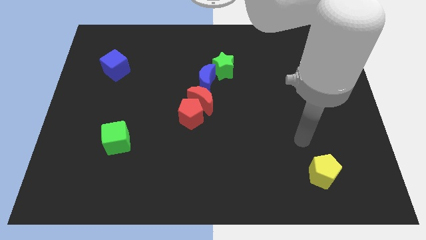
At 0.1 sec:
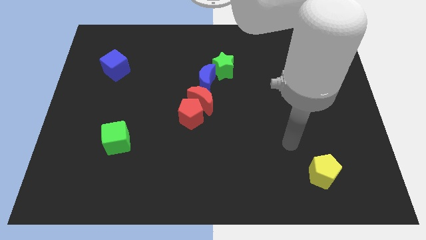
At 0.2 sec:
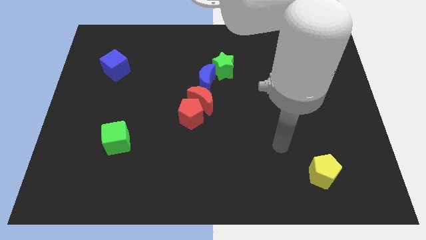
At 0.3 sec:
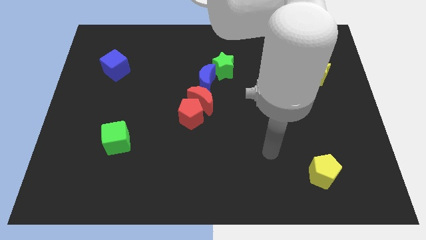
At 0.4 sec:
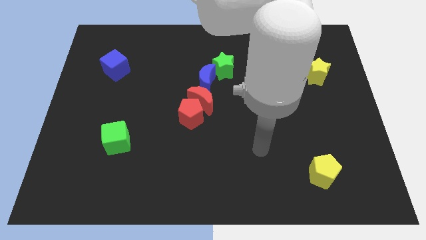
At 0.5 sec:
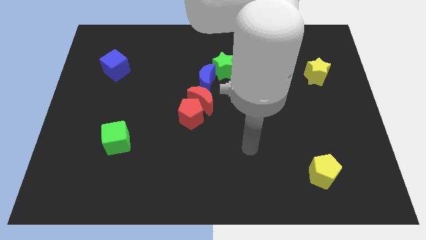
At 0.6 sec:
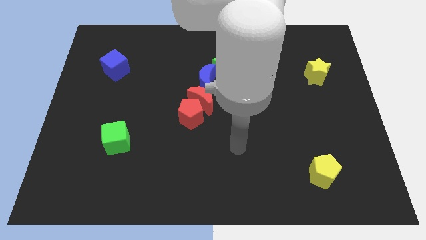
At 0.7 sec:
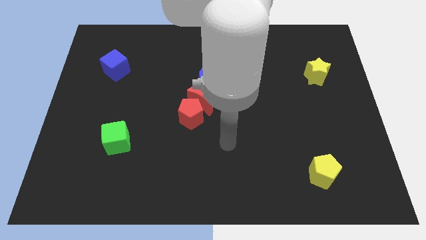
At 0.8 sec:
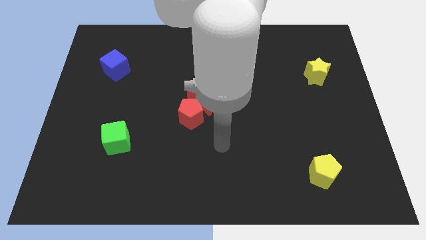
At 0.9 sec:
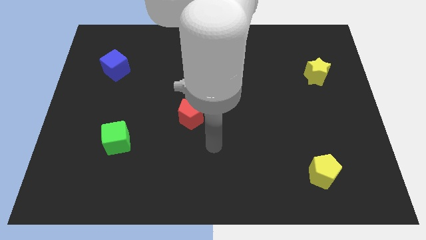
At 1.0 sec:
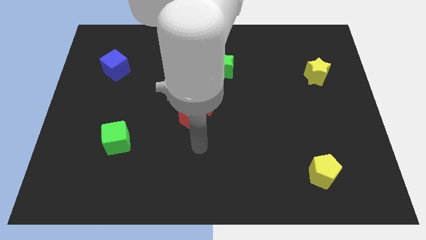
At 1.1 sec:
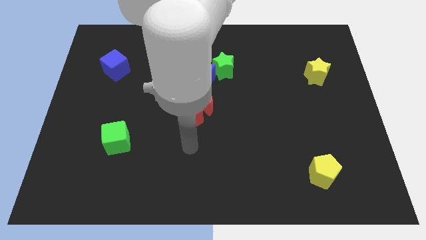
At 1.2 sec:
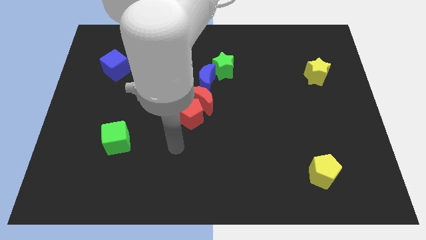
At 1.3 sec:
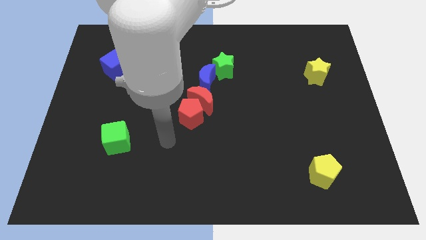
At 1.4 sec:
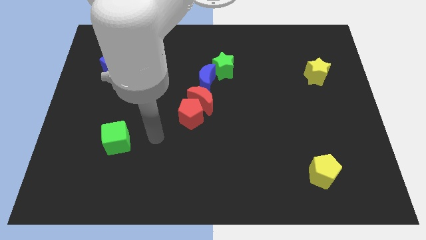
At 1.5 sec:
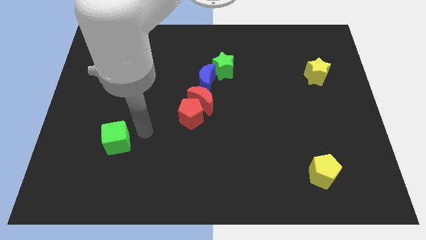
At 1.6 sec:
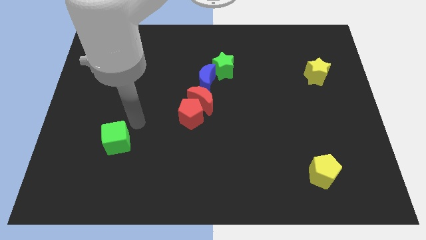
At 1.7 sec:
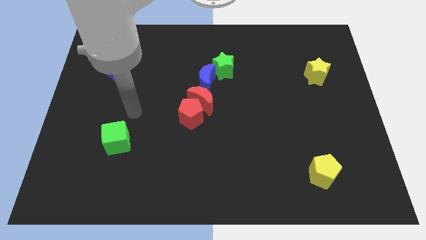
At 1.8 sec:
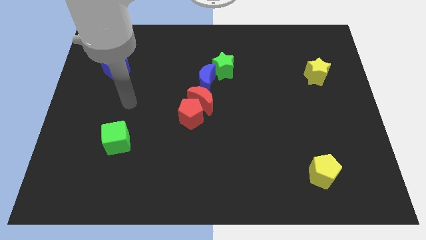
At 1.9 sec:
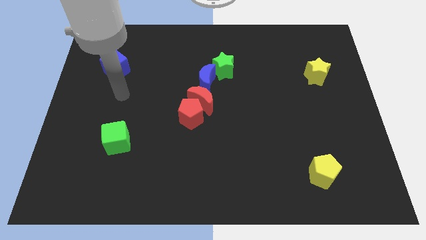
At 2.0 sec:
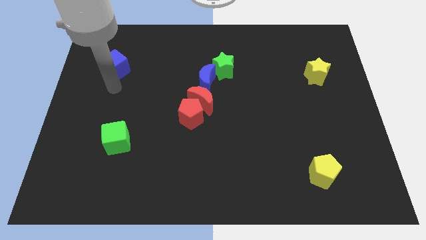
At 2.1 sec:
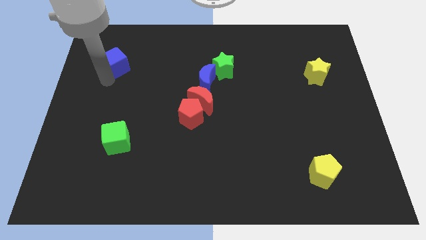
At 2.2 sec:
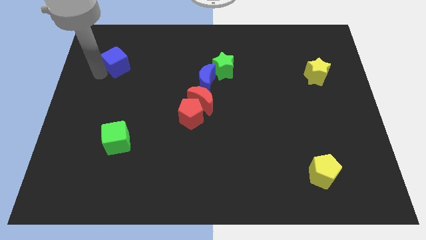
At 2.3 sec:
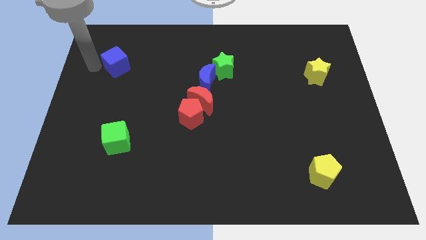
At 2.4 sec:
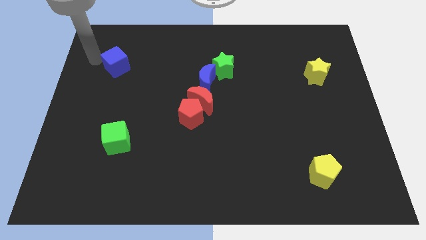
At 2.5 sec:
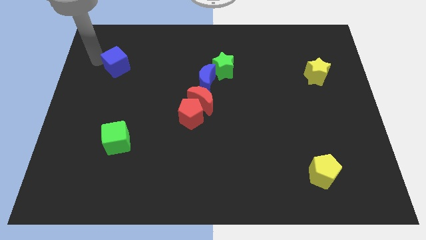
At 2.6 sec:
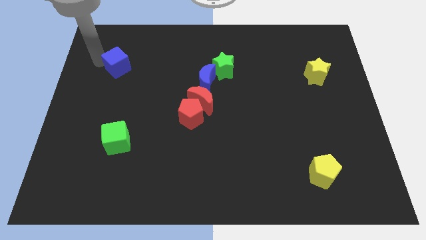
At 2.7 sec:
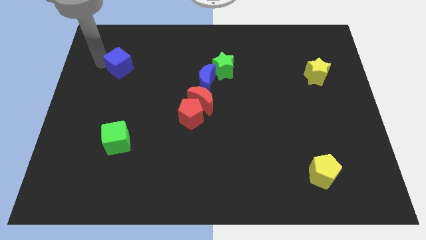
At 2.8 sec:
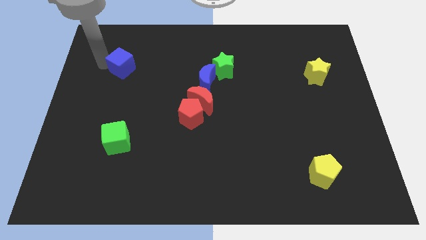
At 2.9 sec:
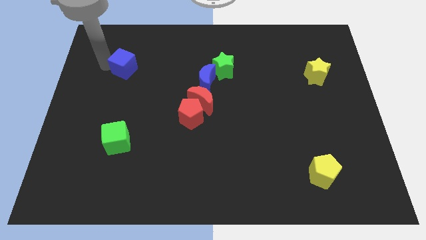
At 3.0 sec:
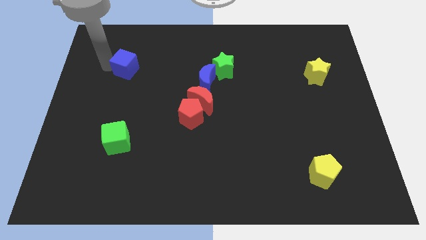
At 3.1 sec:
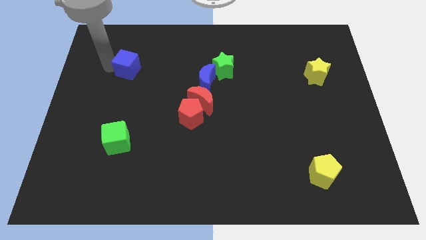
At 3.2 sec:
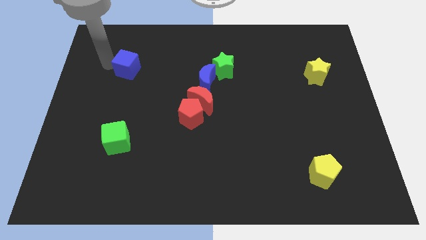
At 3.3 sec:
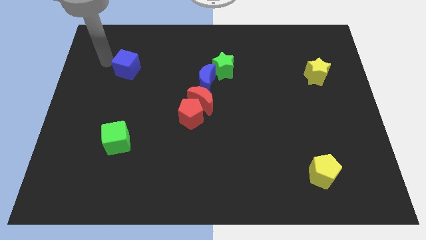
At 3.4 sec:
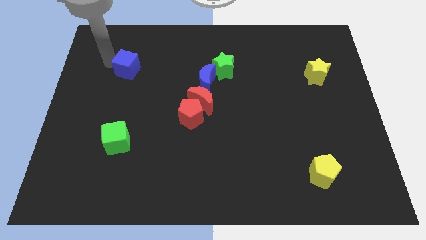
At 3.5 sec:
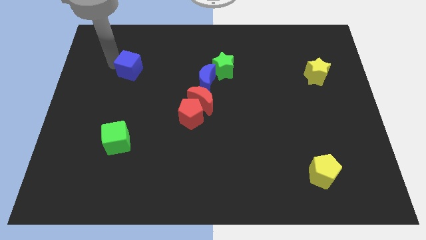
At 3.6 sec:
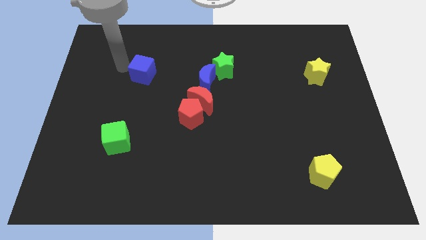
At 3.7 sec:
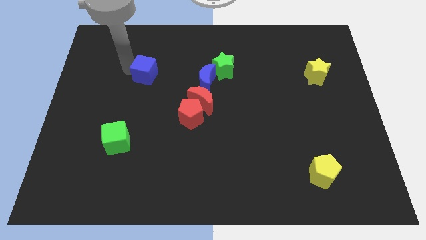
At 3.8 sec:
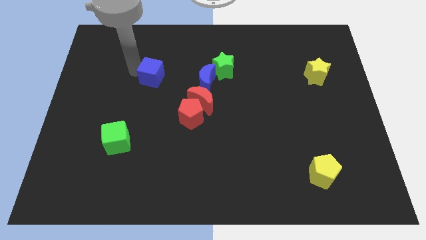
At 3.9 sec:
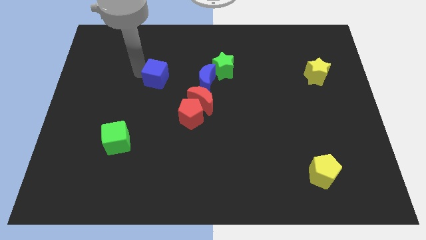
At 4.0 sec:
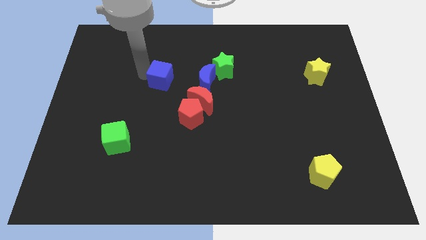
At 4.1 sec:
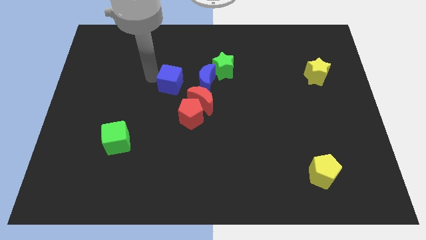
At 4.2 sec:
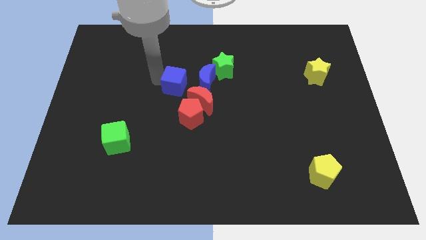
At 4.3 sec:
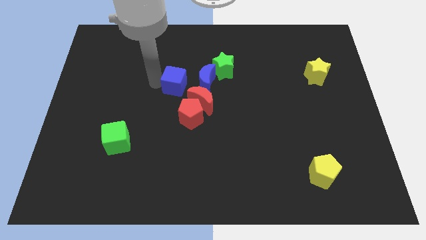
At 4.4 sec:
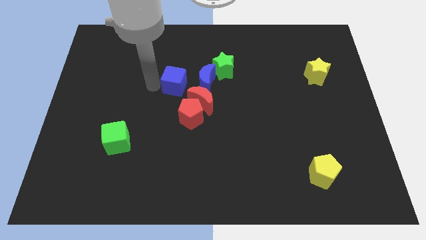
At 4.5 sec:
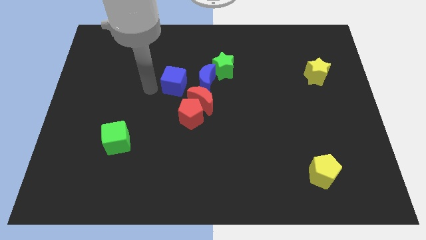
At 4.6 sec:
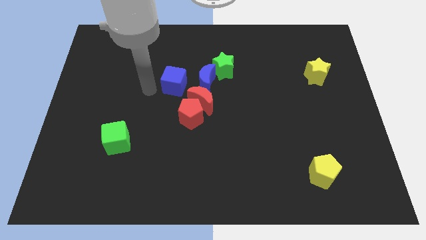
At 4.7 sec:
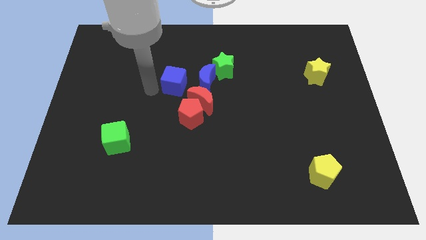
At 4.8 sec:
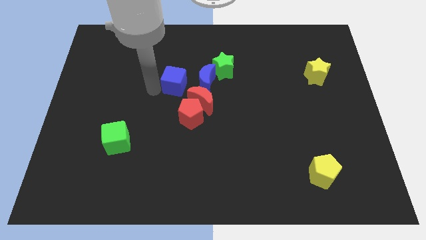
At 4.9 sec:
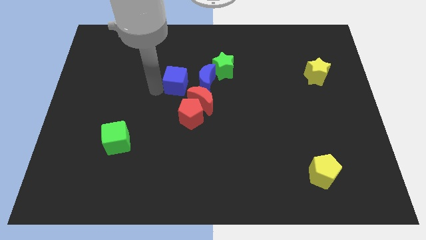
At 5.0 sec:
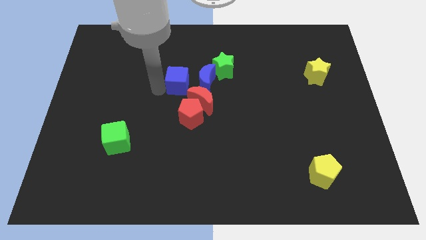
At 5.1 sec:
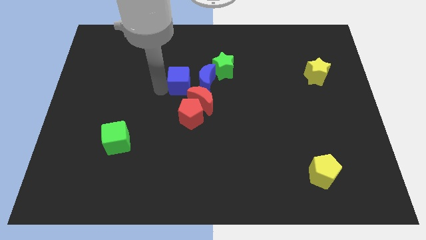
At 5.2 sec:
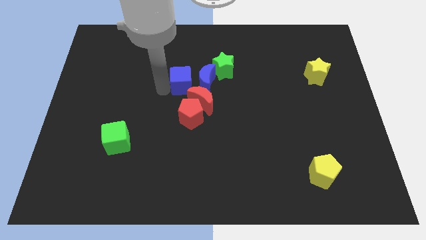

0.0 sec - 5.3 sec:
slide the blue cube next to the blue moon

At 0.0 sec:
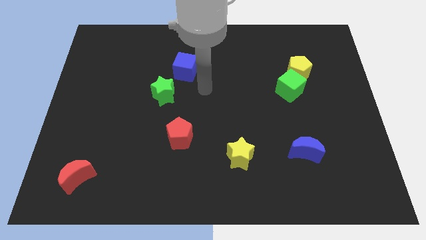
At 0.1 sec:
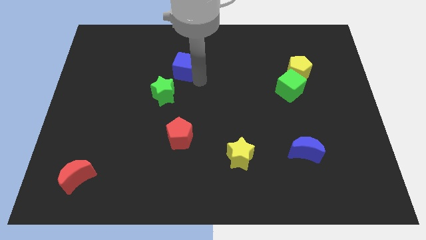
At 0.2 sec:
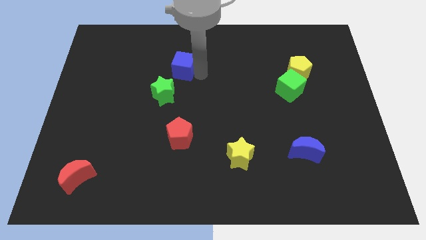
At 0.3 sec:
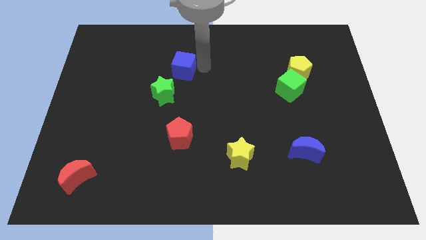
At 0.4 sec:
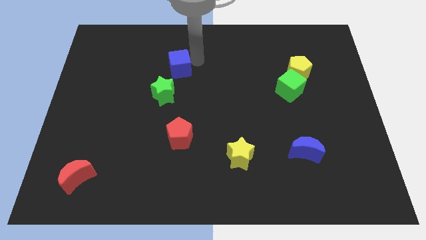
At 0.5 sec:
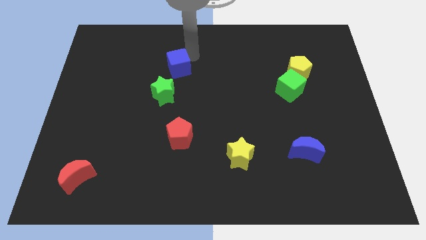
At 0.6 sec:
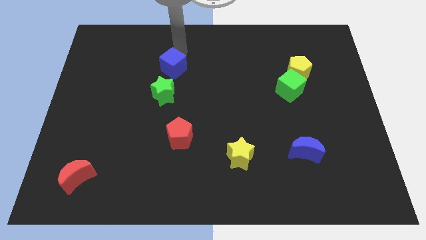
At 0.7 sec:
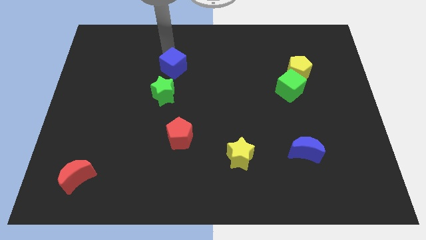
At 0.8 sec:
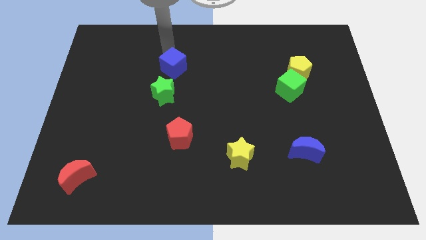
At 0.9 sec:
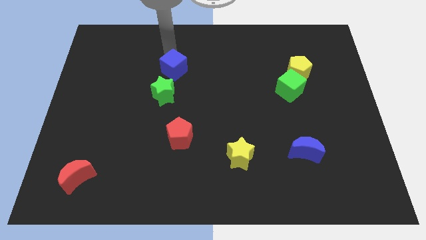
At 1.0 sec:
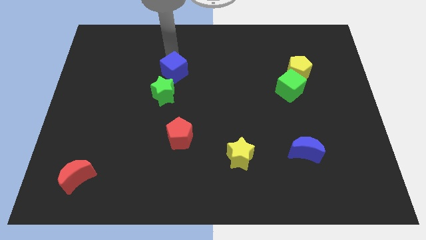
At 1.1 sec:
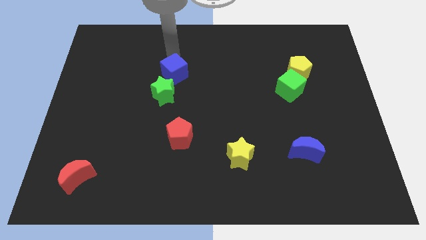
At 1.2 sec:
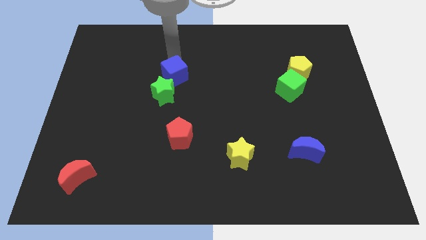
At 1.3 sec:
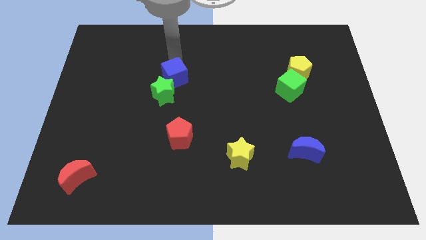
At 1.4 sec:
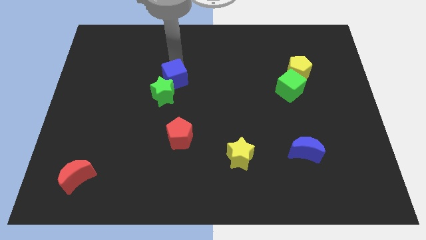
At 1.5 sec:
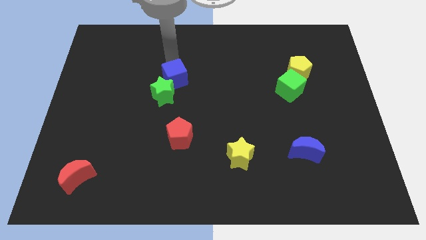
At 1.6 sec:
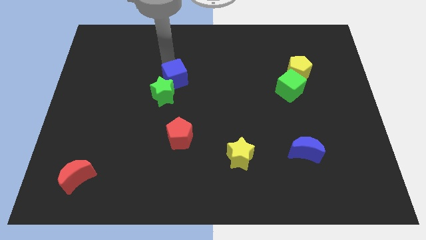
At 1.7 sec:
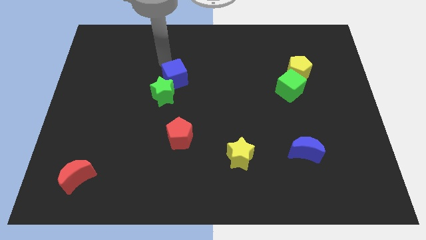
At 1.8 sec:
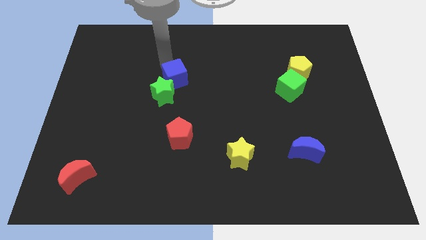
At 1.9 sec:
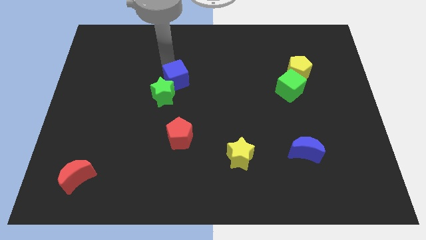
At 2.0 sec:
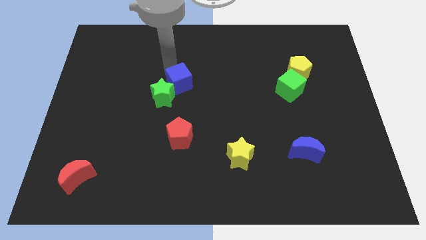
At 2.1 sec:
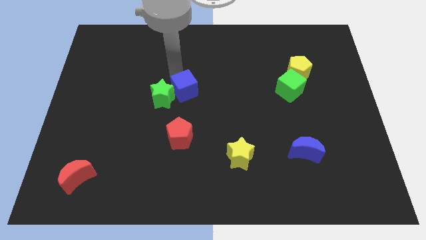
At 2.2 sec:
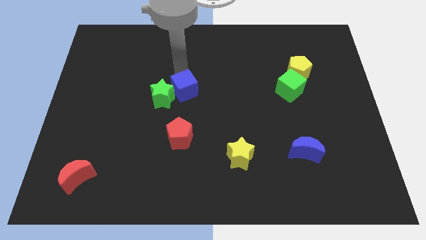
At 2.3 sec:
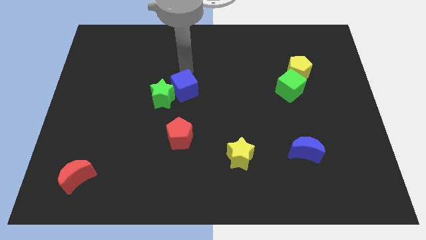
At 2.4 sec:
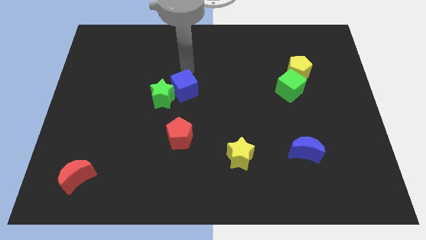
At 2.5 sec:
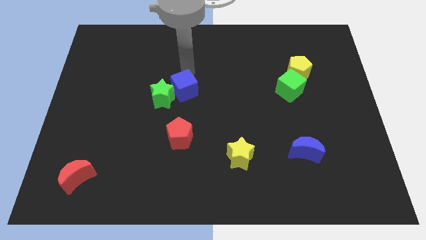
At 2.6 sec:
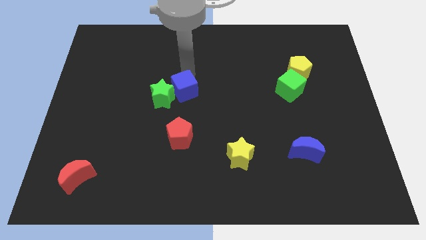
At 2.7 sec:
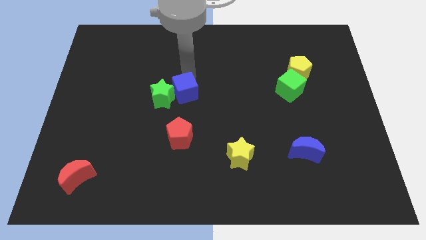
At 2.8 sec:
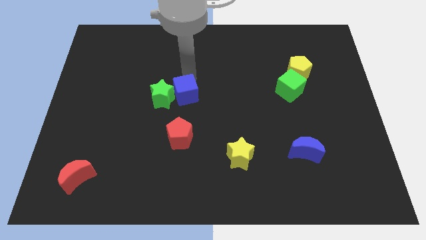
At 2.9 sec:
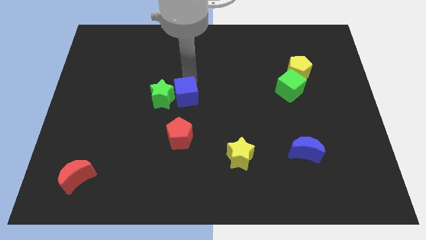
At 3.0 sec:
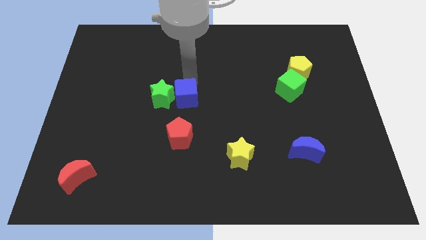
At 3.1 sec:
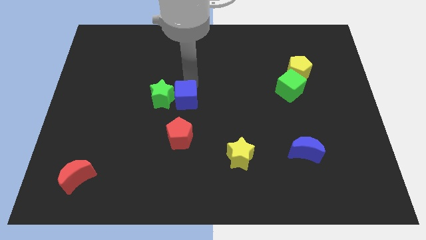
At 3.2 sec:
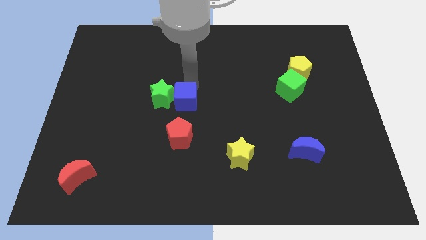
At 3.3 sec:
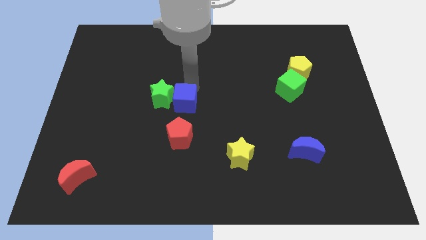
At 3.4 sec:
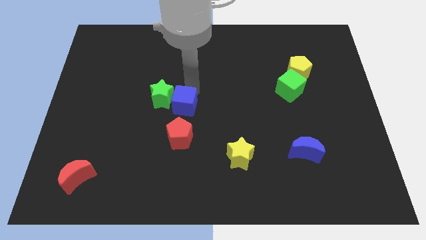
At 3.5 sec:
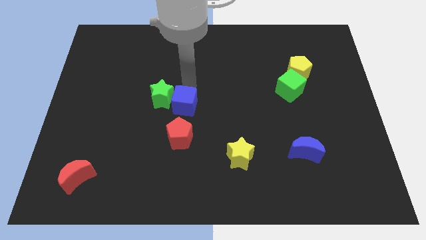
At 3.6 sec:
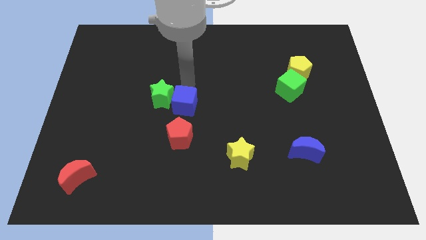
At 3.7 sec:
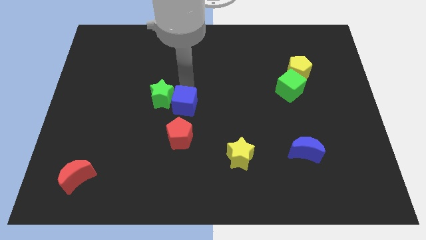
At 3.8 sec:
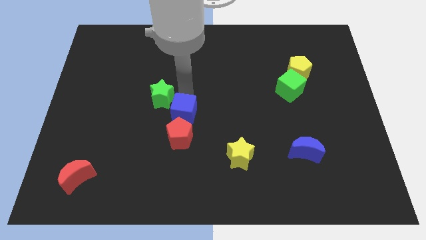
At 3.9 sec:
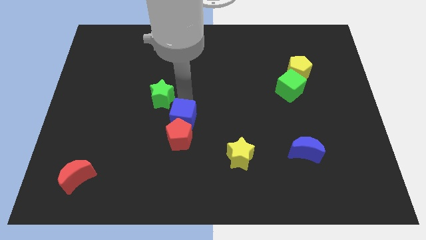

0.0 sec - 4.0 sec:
move the blue cube to the red pentagon
